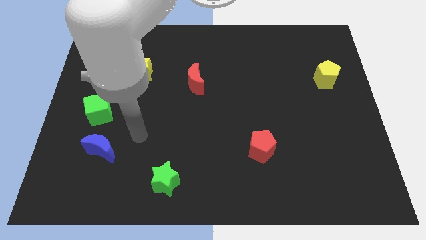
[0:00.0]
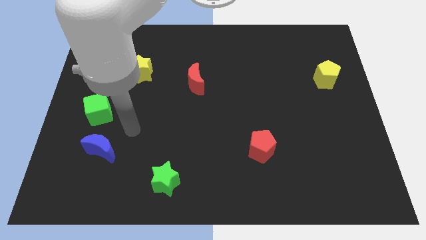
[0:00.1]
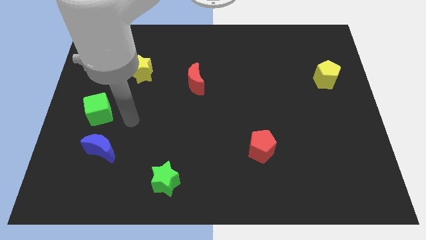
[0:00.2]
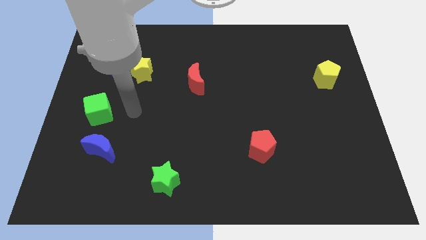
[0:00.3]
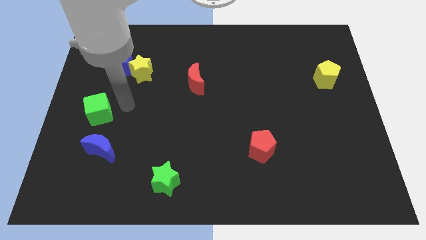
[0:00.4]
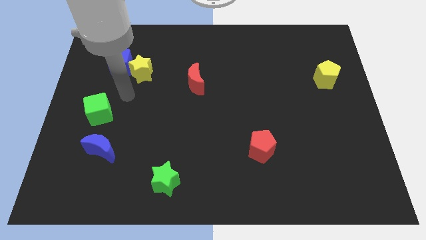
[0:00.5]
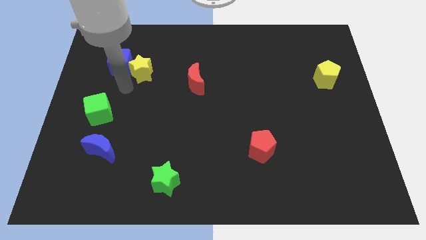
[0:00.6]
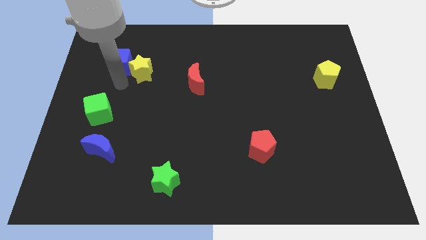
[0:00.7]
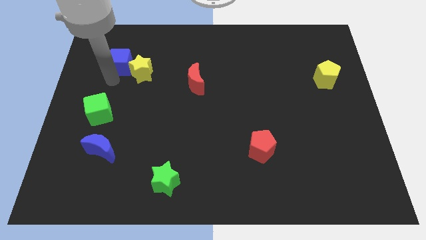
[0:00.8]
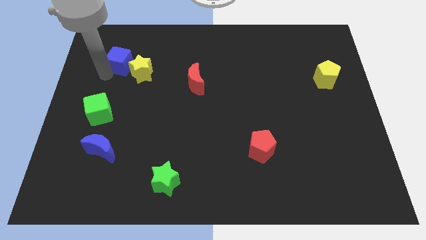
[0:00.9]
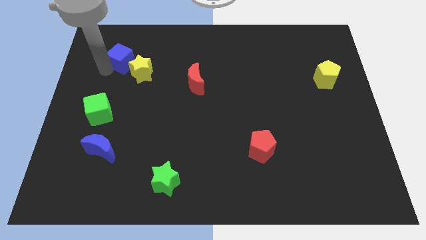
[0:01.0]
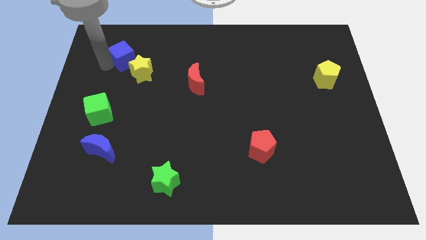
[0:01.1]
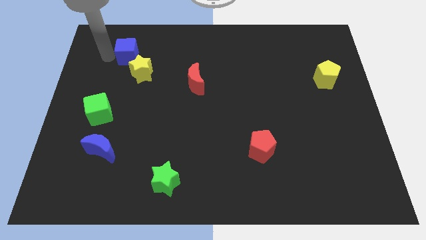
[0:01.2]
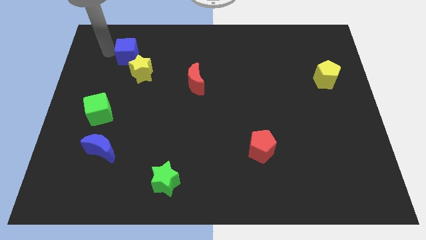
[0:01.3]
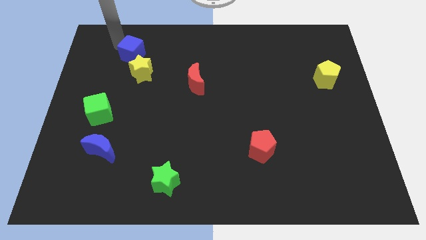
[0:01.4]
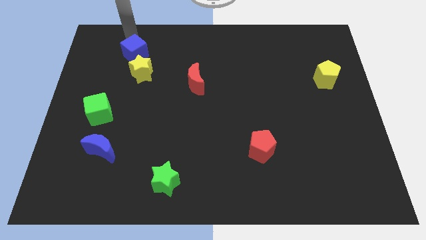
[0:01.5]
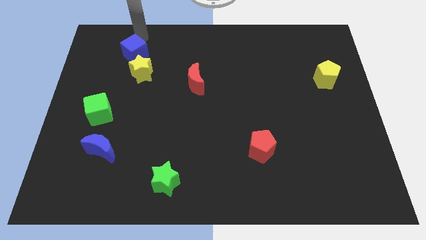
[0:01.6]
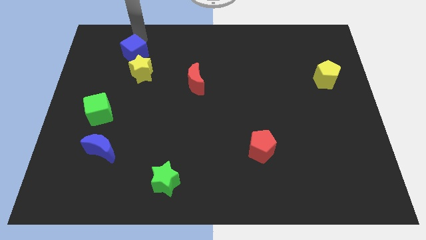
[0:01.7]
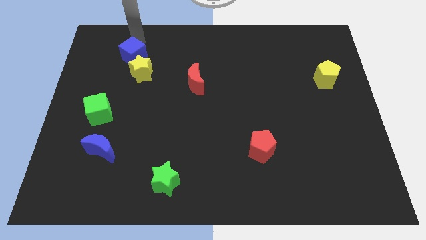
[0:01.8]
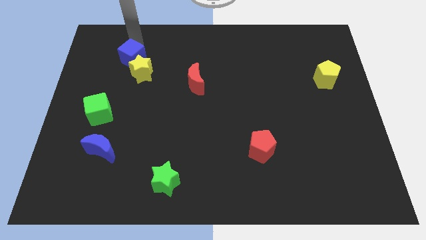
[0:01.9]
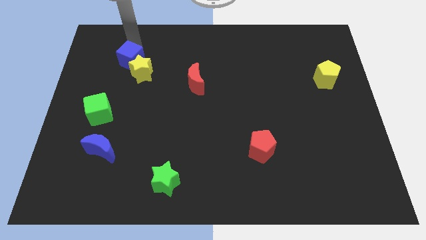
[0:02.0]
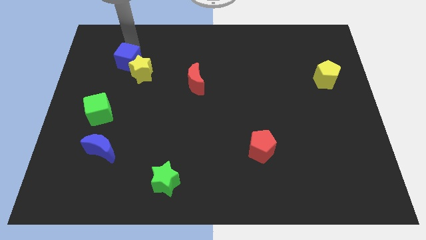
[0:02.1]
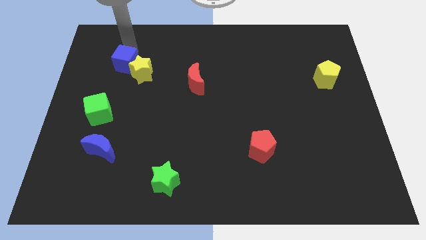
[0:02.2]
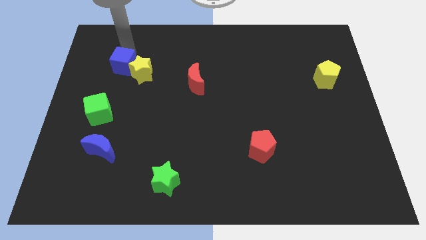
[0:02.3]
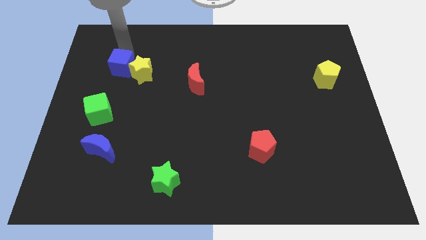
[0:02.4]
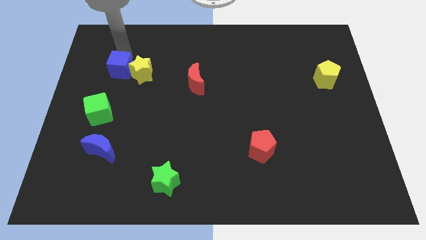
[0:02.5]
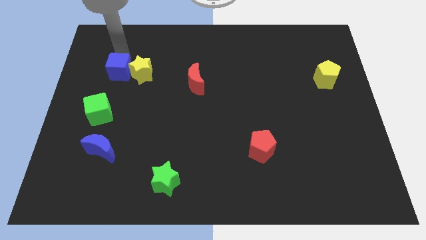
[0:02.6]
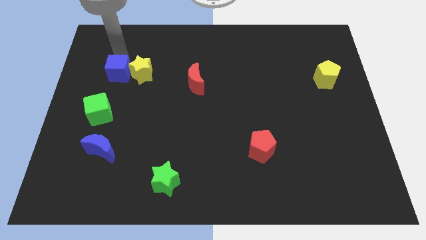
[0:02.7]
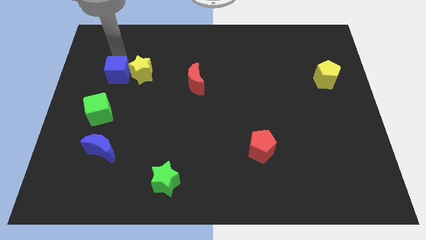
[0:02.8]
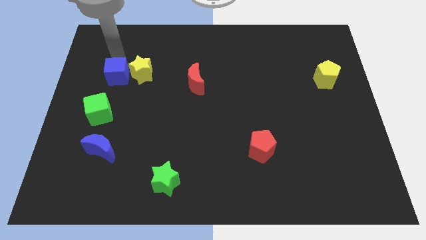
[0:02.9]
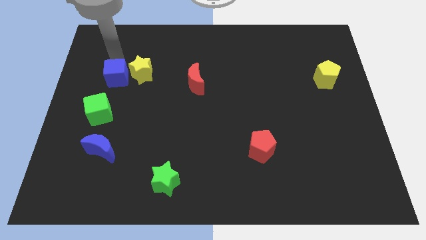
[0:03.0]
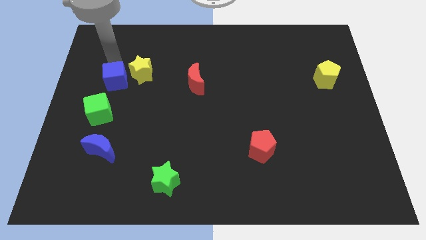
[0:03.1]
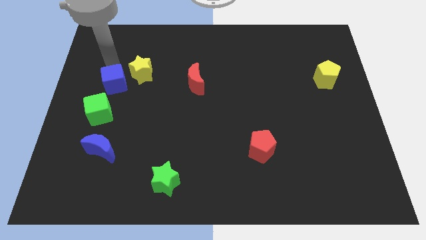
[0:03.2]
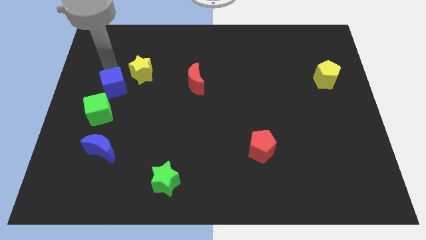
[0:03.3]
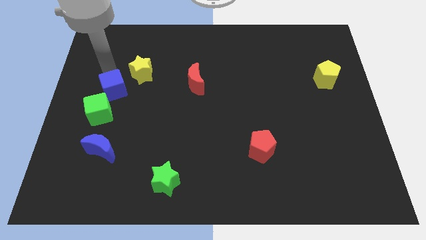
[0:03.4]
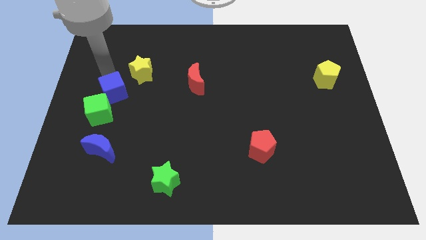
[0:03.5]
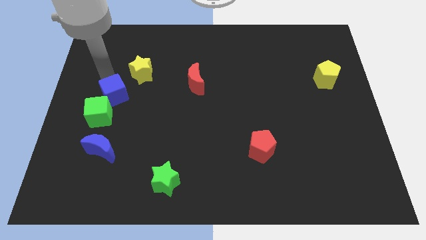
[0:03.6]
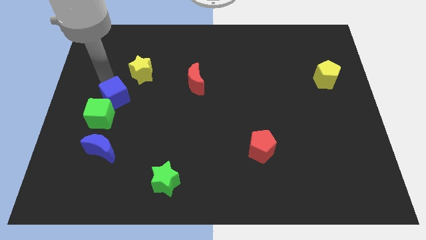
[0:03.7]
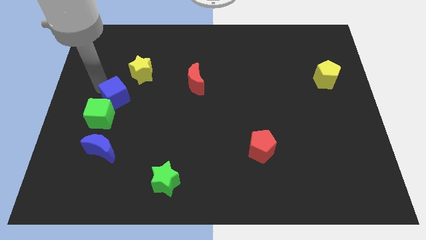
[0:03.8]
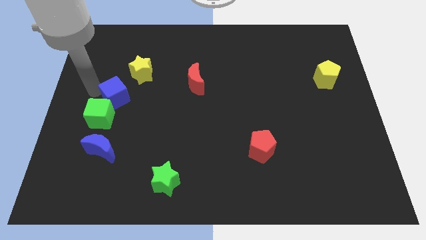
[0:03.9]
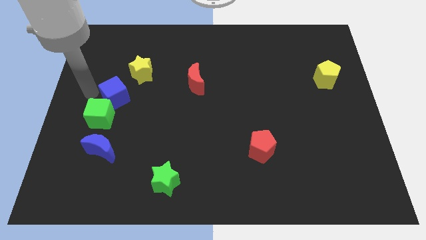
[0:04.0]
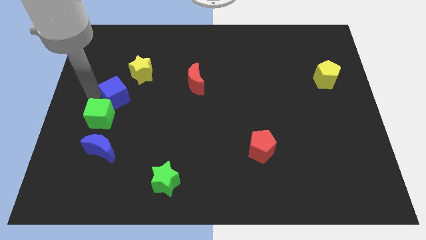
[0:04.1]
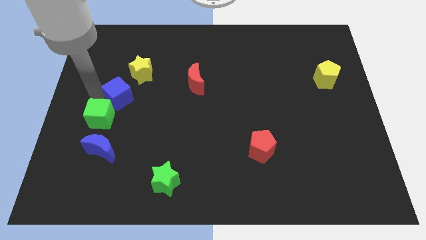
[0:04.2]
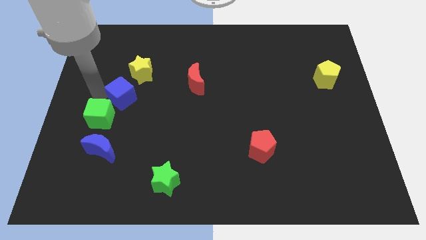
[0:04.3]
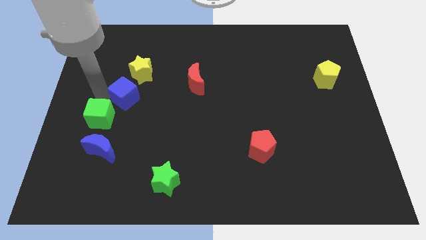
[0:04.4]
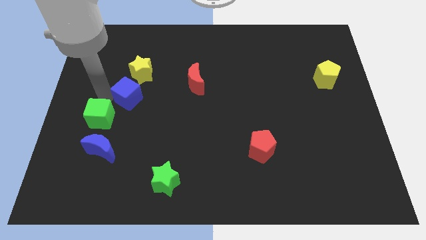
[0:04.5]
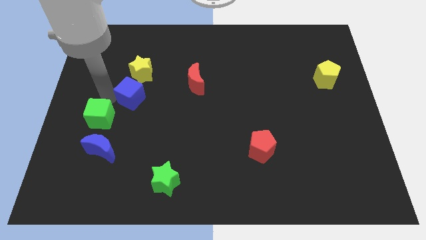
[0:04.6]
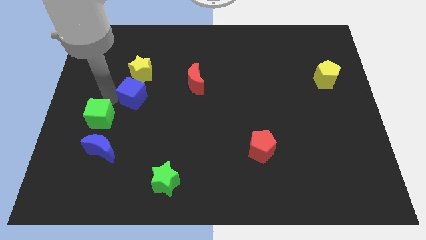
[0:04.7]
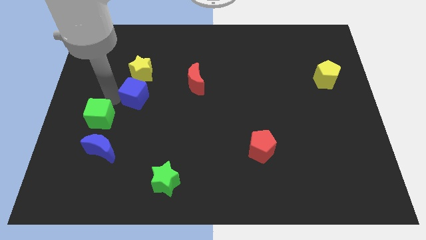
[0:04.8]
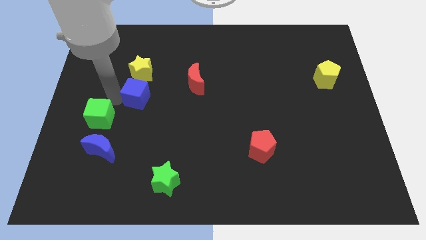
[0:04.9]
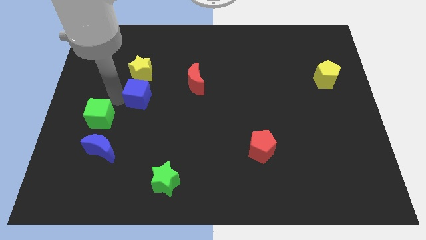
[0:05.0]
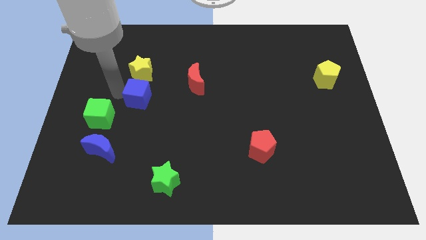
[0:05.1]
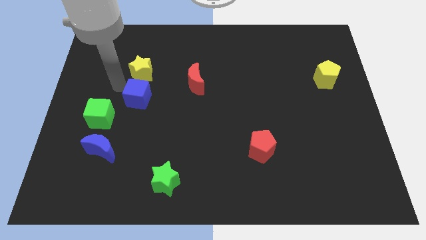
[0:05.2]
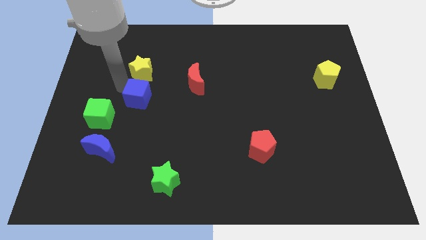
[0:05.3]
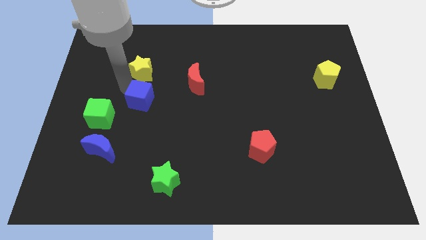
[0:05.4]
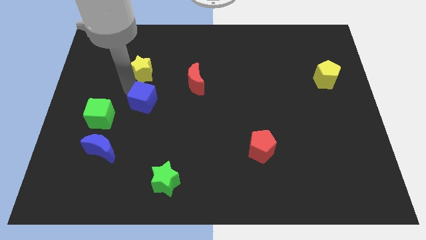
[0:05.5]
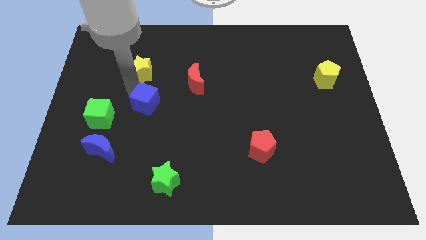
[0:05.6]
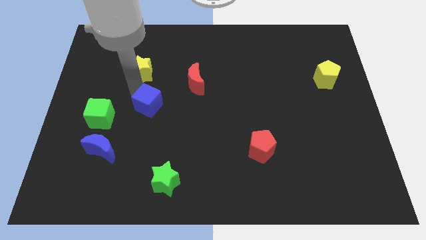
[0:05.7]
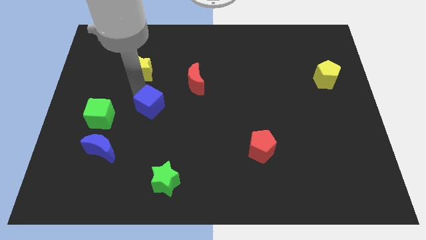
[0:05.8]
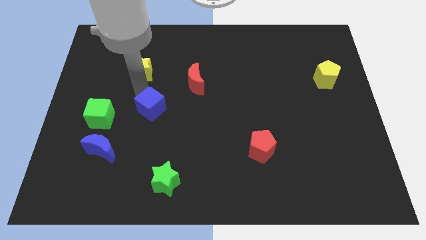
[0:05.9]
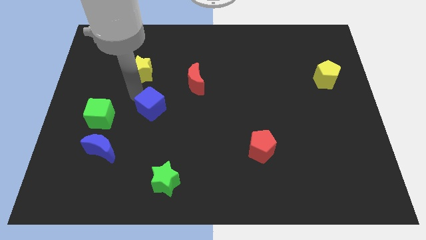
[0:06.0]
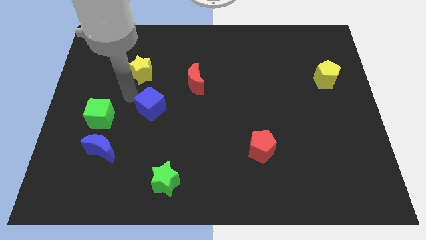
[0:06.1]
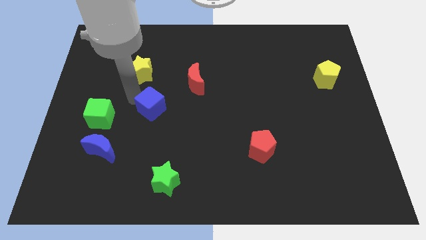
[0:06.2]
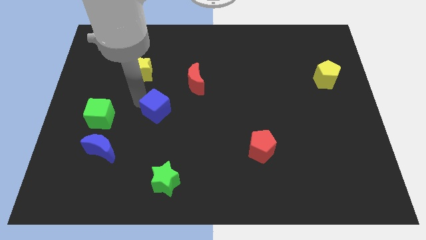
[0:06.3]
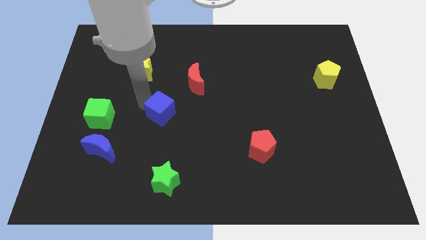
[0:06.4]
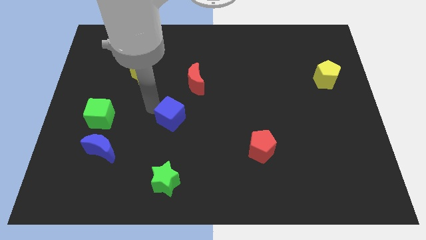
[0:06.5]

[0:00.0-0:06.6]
move the blue cube down and then right

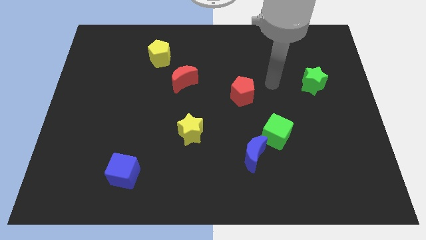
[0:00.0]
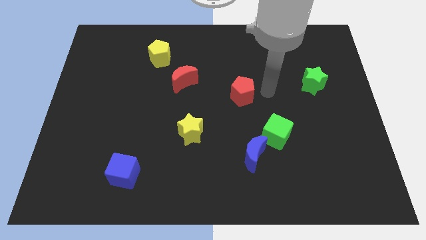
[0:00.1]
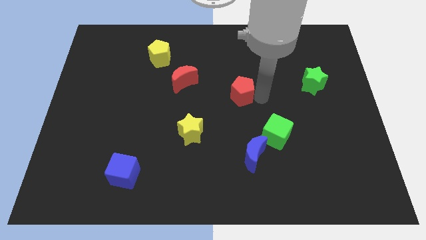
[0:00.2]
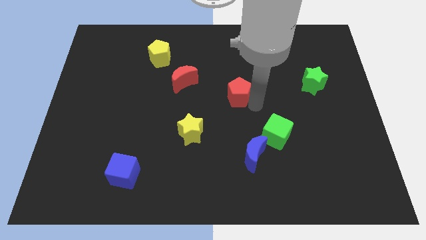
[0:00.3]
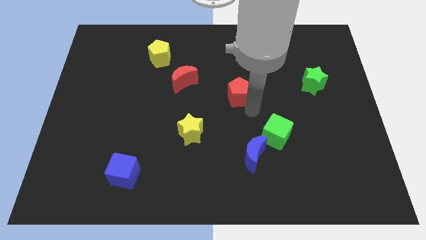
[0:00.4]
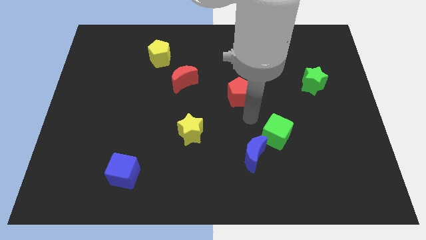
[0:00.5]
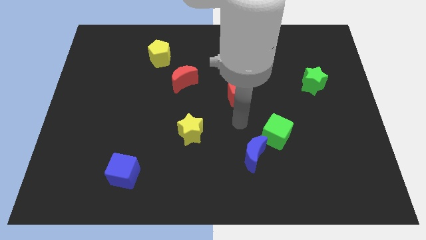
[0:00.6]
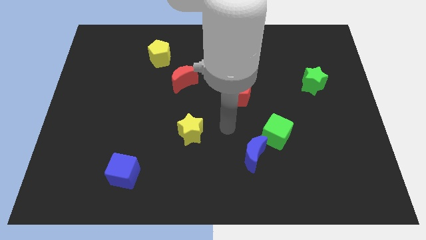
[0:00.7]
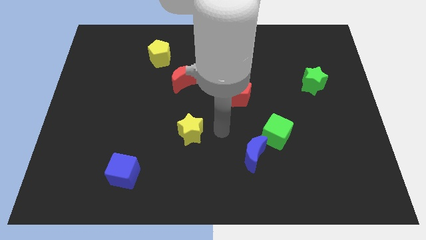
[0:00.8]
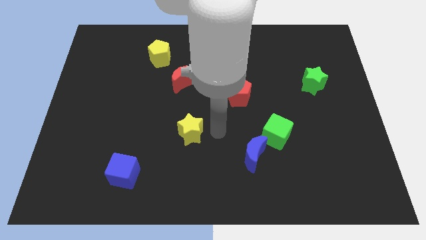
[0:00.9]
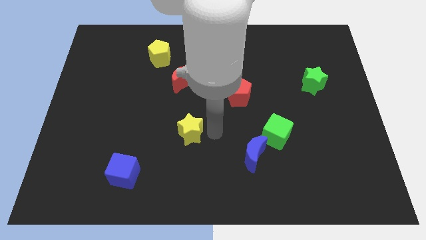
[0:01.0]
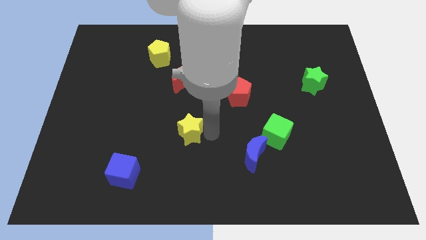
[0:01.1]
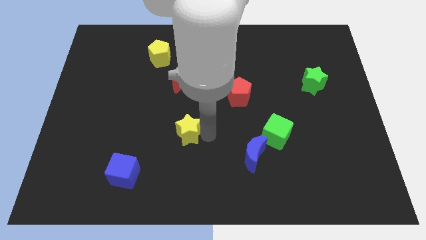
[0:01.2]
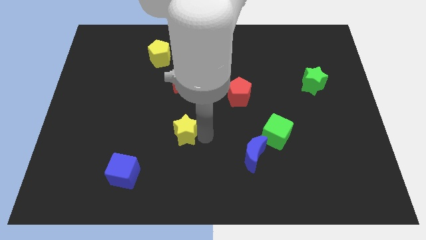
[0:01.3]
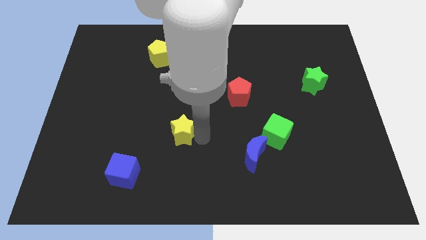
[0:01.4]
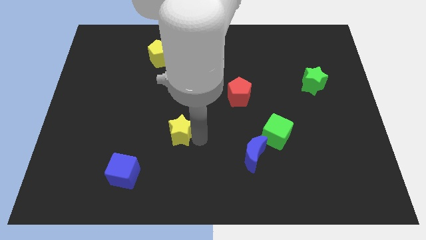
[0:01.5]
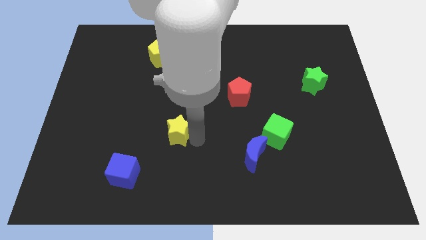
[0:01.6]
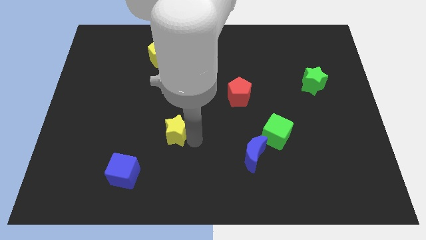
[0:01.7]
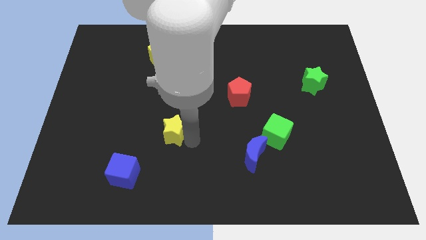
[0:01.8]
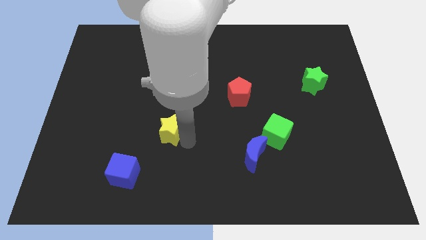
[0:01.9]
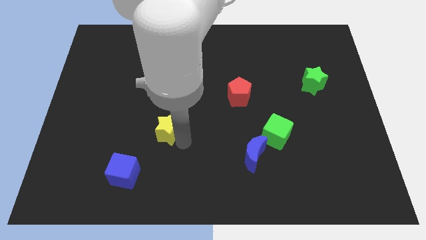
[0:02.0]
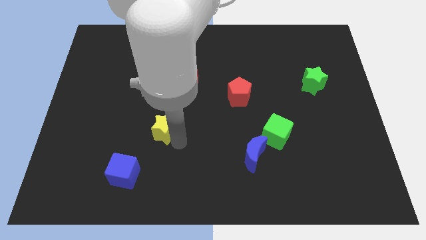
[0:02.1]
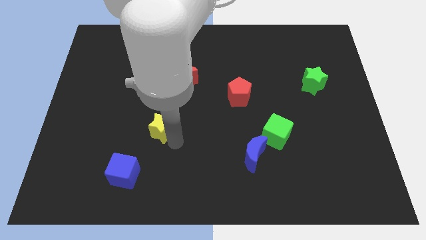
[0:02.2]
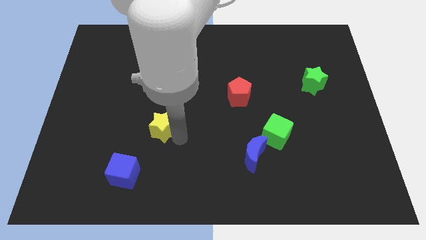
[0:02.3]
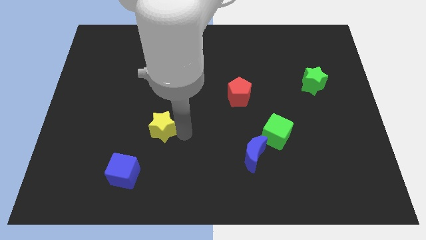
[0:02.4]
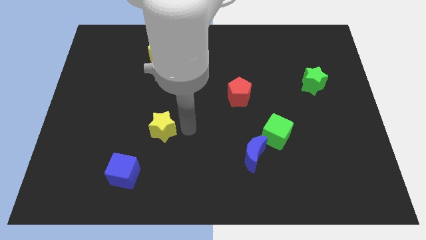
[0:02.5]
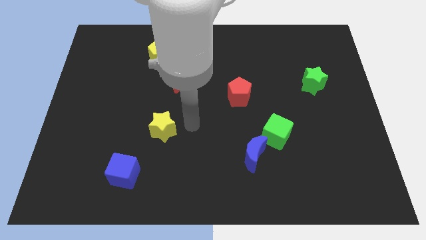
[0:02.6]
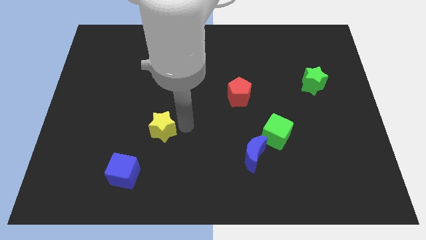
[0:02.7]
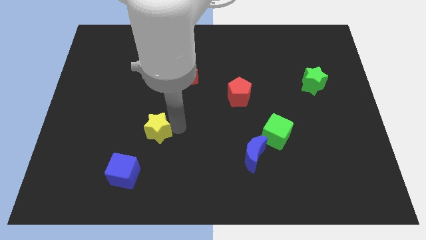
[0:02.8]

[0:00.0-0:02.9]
move the yellow star left somewhat
